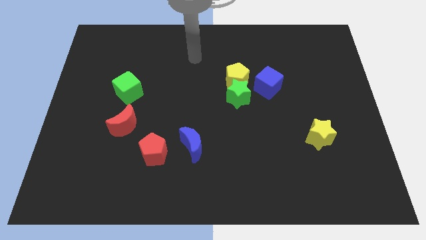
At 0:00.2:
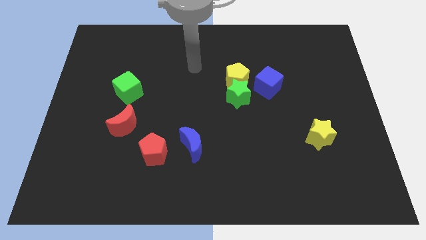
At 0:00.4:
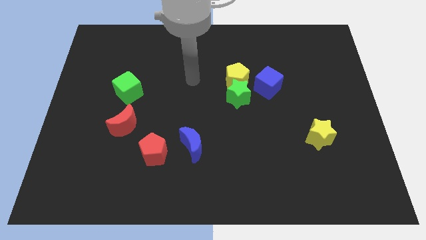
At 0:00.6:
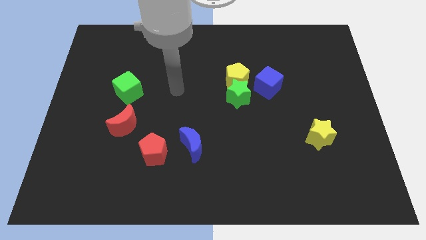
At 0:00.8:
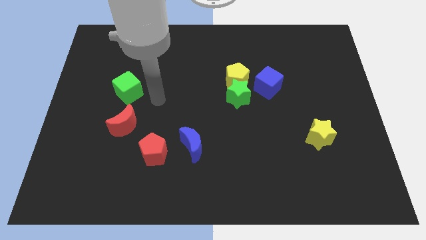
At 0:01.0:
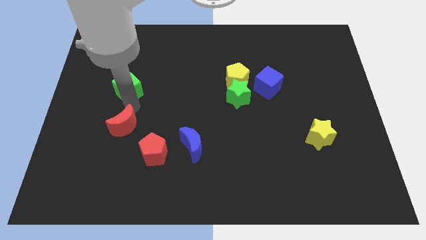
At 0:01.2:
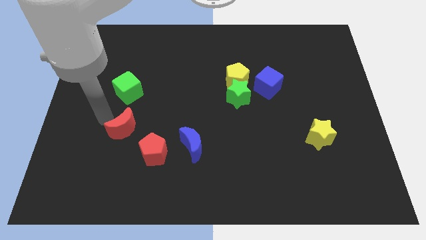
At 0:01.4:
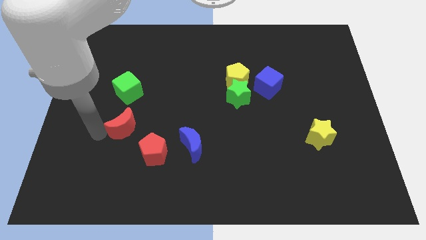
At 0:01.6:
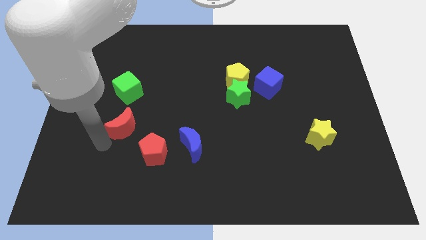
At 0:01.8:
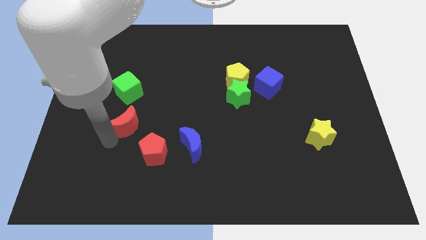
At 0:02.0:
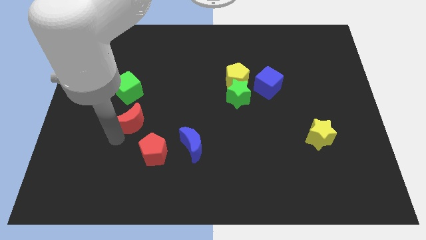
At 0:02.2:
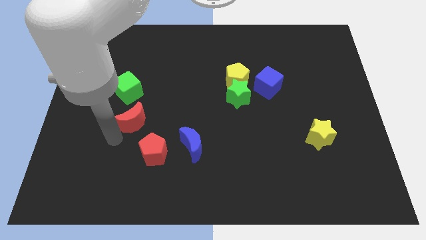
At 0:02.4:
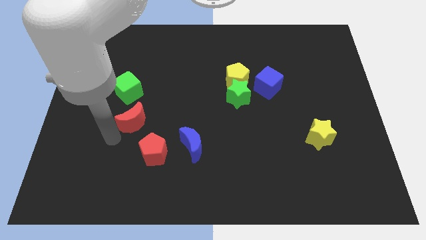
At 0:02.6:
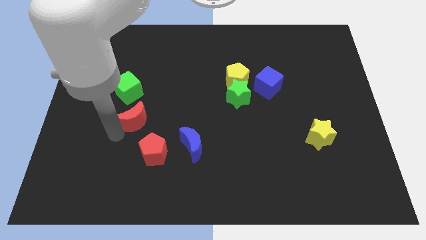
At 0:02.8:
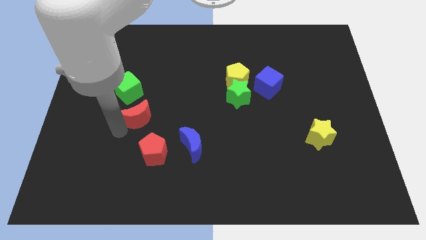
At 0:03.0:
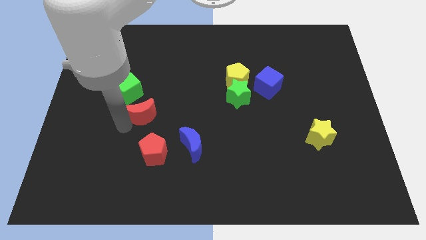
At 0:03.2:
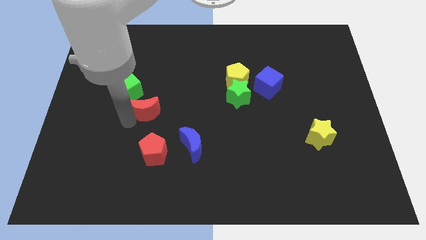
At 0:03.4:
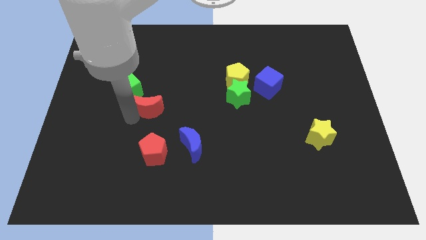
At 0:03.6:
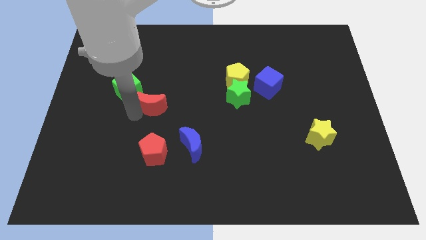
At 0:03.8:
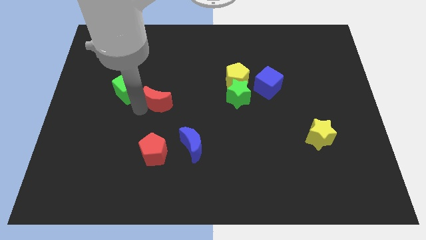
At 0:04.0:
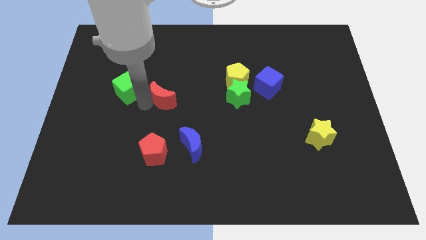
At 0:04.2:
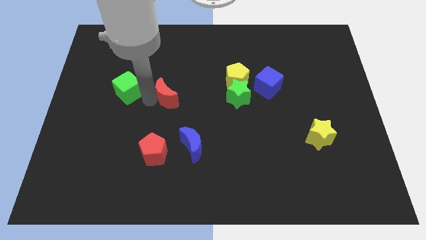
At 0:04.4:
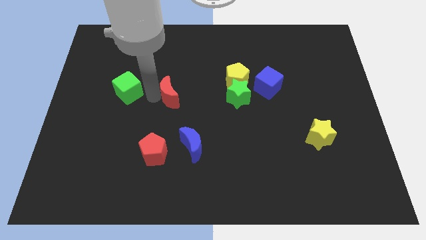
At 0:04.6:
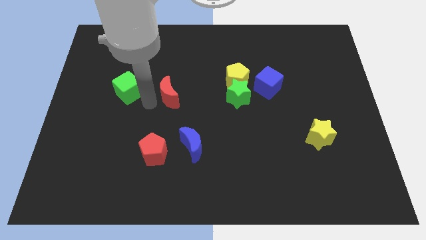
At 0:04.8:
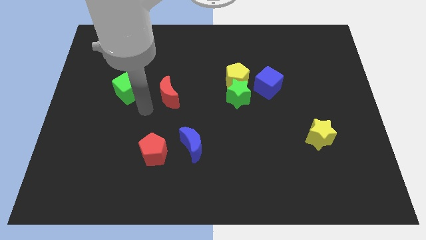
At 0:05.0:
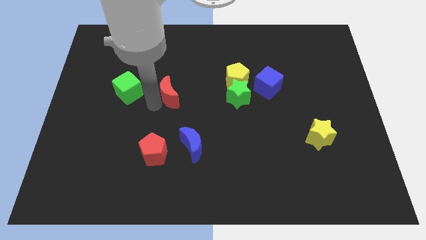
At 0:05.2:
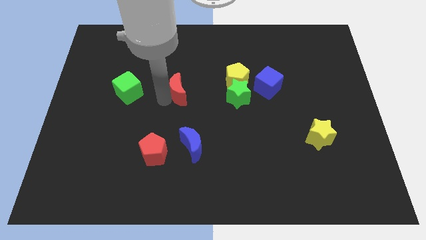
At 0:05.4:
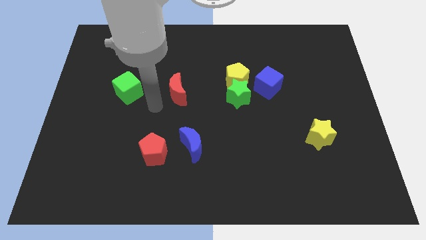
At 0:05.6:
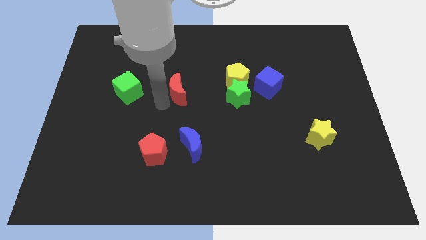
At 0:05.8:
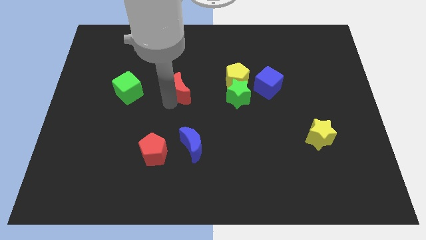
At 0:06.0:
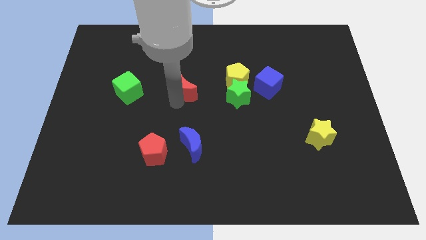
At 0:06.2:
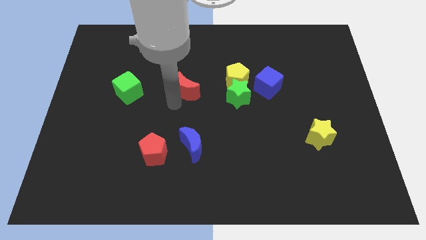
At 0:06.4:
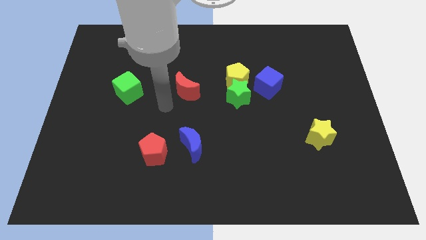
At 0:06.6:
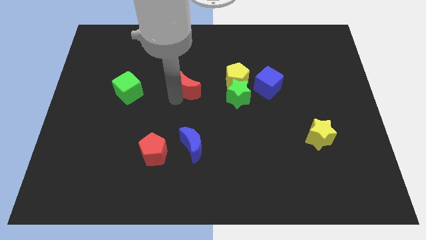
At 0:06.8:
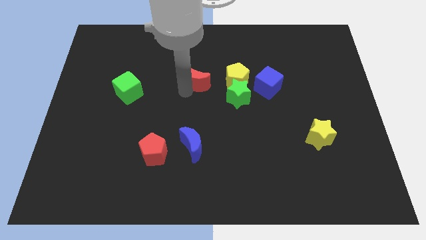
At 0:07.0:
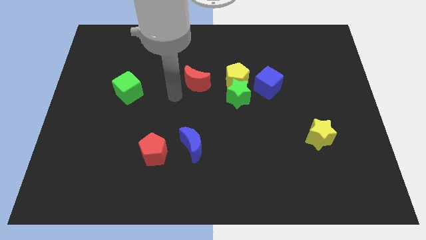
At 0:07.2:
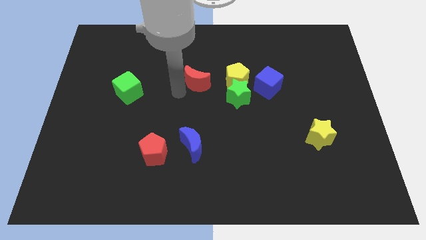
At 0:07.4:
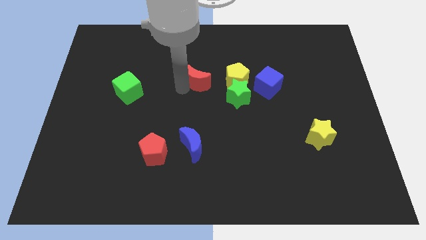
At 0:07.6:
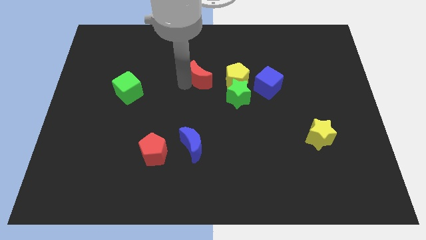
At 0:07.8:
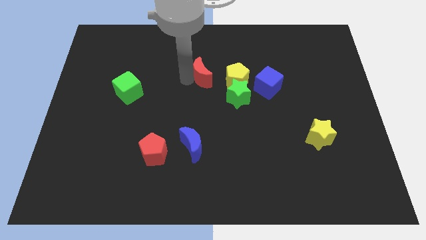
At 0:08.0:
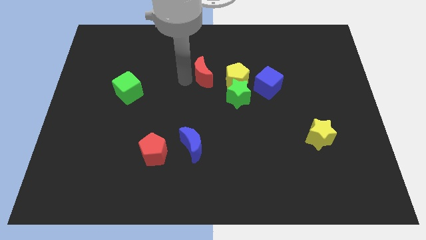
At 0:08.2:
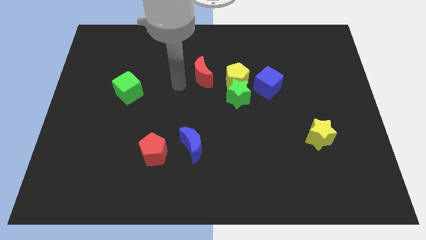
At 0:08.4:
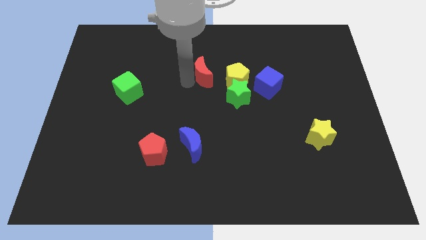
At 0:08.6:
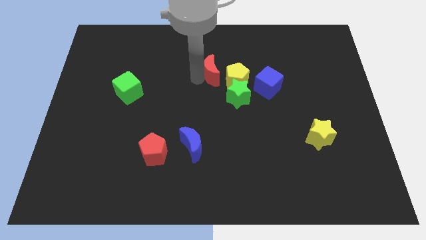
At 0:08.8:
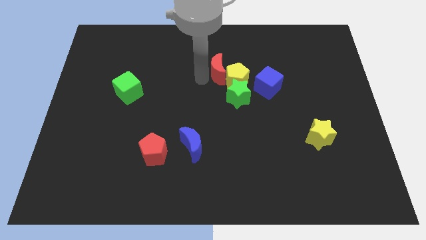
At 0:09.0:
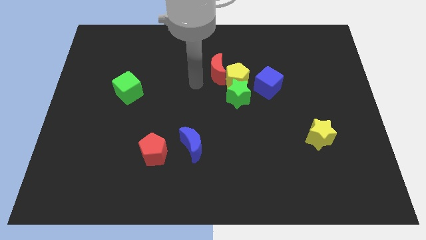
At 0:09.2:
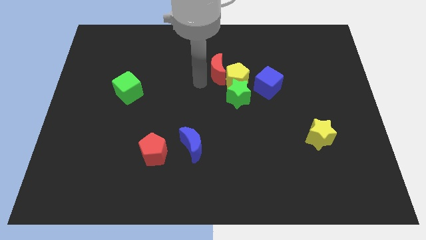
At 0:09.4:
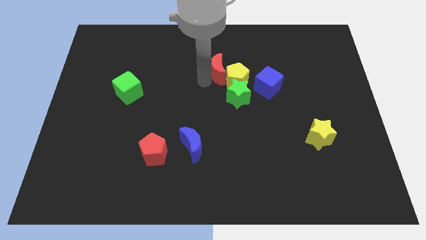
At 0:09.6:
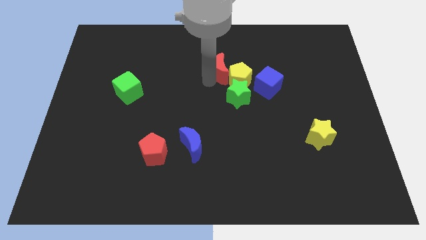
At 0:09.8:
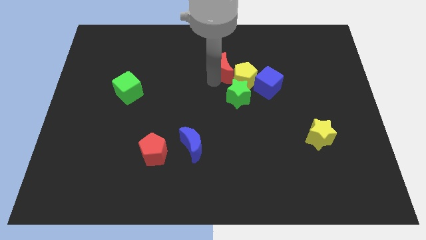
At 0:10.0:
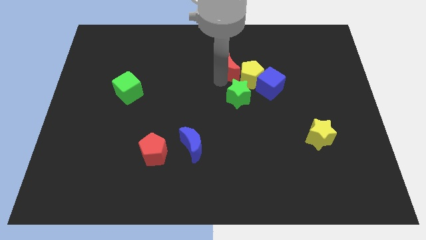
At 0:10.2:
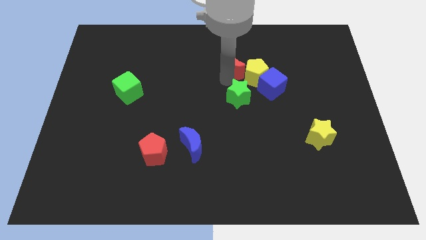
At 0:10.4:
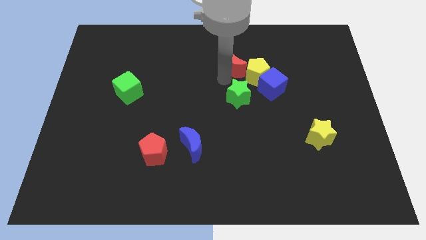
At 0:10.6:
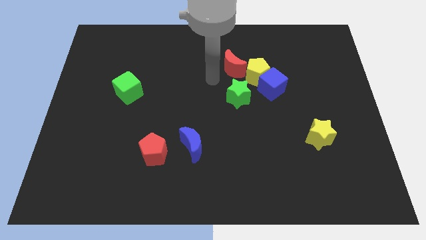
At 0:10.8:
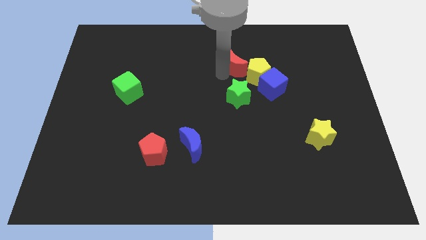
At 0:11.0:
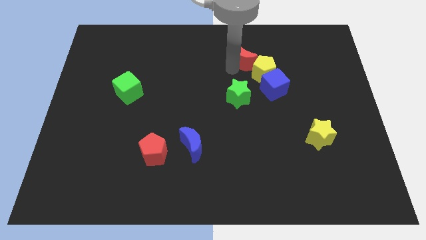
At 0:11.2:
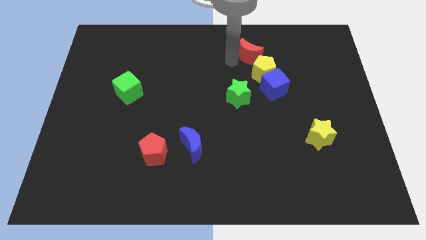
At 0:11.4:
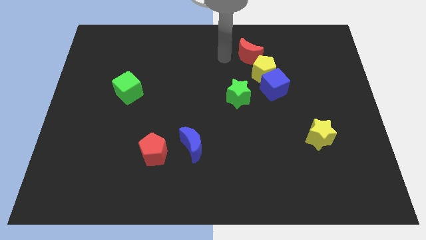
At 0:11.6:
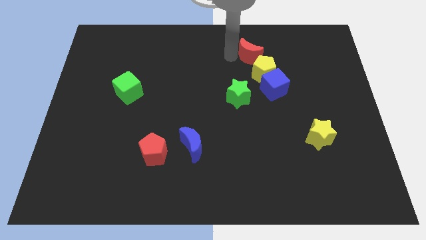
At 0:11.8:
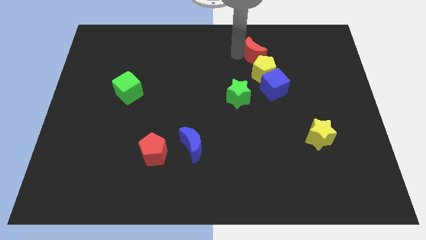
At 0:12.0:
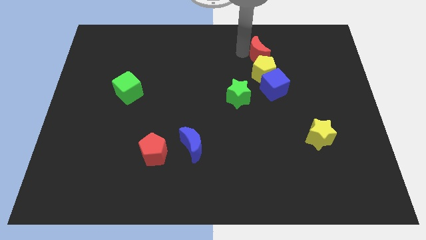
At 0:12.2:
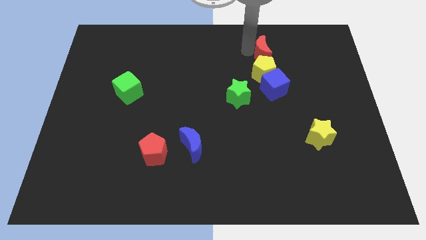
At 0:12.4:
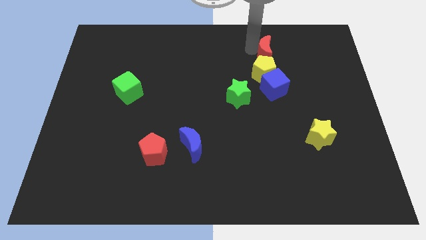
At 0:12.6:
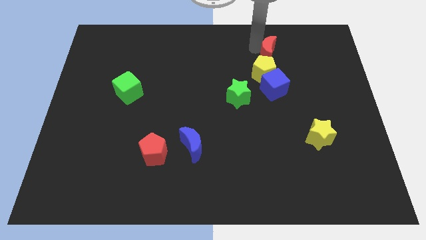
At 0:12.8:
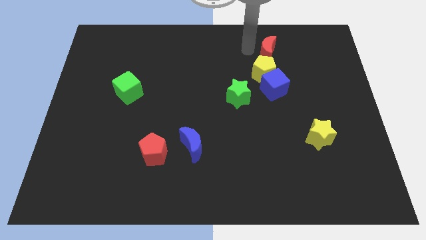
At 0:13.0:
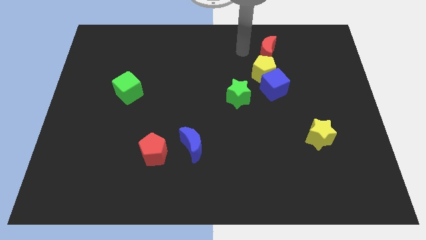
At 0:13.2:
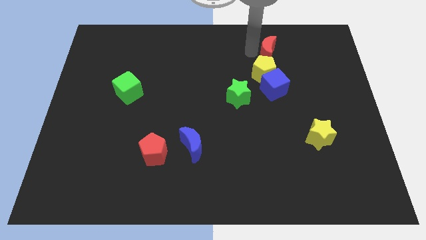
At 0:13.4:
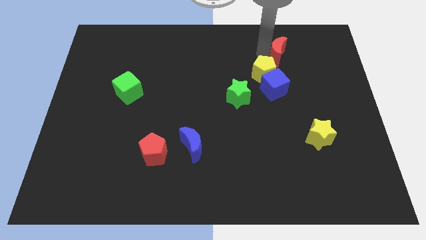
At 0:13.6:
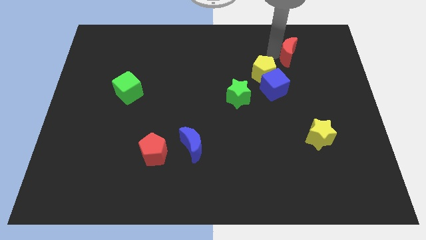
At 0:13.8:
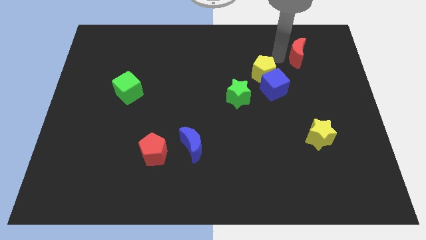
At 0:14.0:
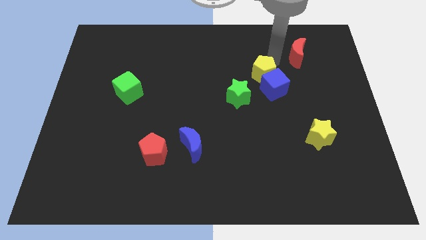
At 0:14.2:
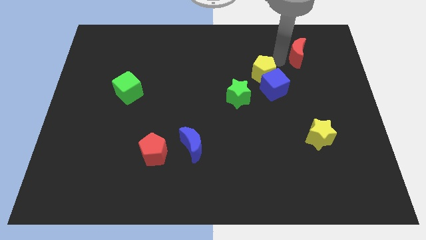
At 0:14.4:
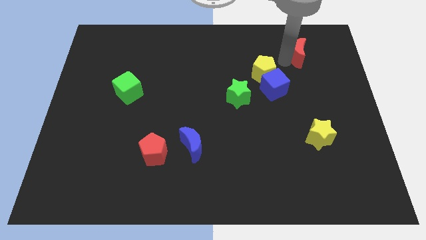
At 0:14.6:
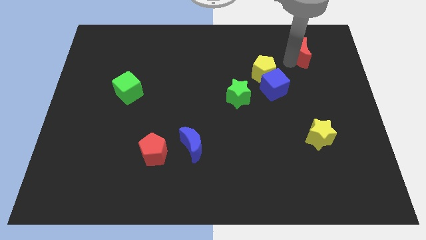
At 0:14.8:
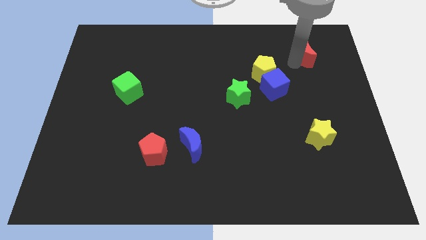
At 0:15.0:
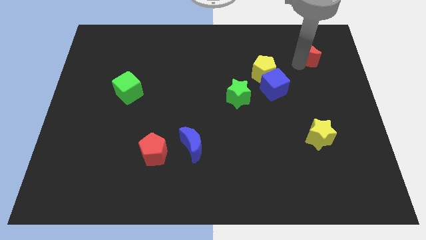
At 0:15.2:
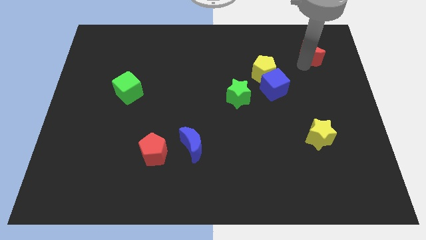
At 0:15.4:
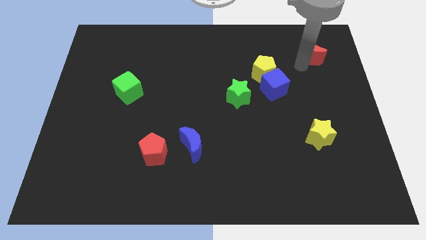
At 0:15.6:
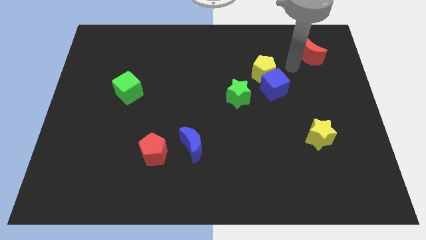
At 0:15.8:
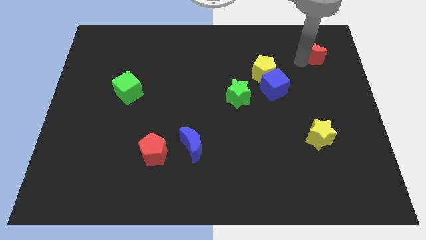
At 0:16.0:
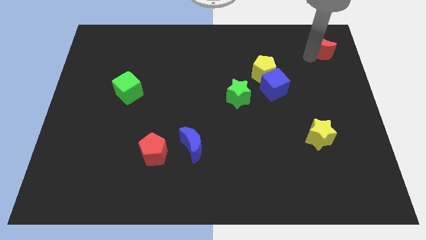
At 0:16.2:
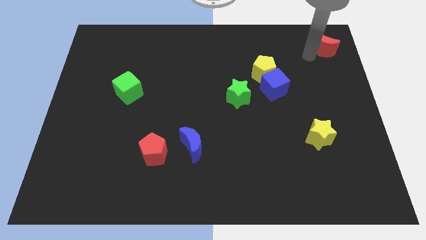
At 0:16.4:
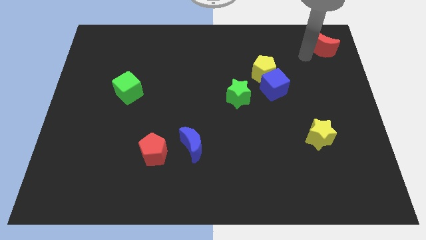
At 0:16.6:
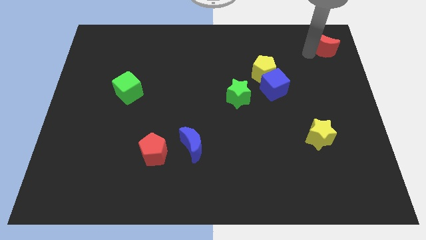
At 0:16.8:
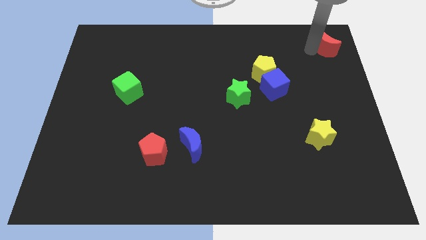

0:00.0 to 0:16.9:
put the red moon to the top right
